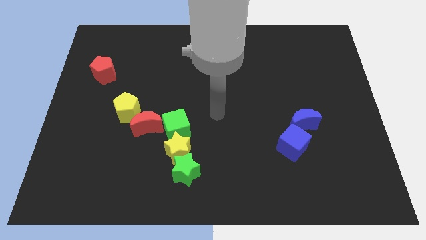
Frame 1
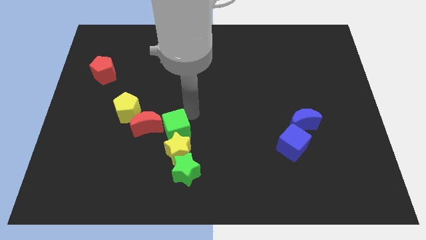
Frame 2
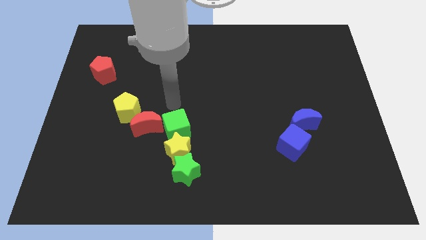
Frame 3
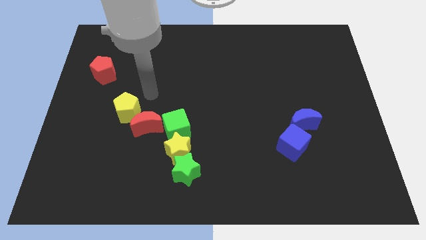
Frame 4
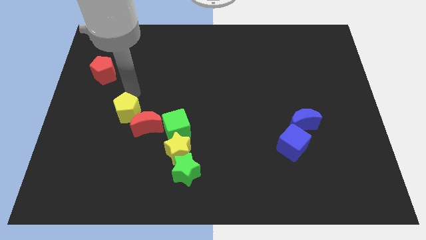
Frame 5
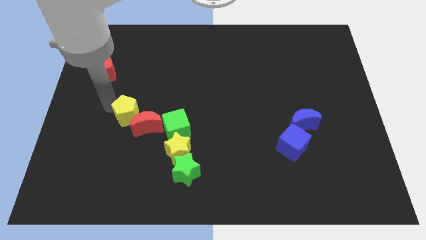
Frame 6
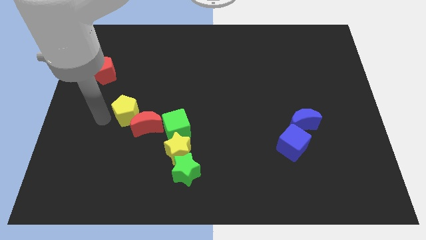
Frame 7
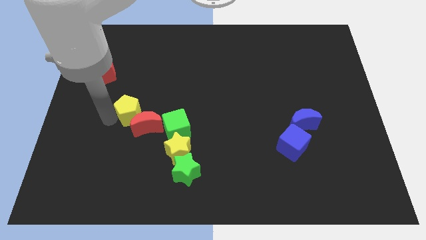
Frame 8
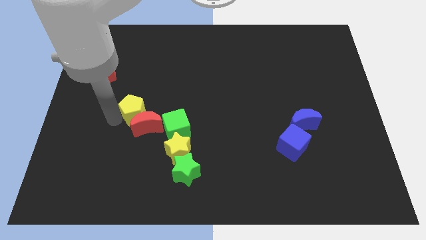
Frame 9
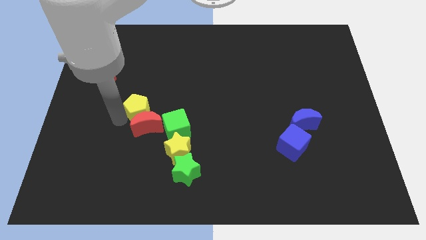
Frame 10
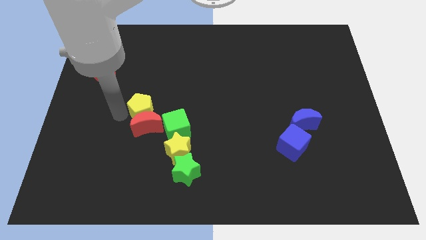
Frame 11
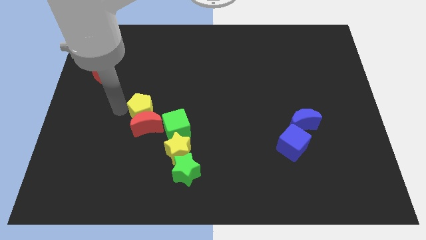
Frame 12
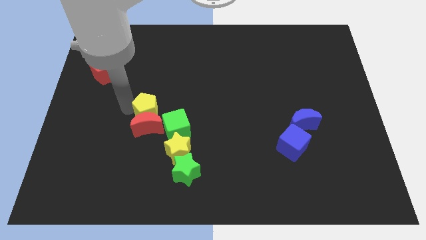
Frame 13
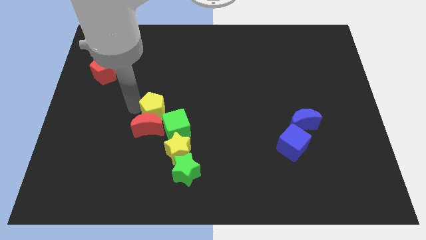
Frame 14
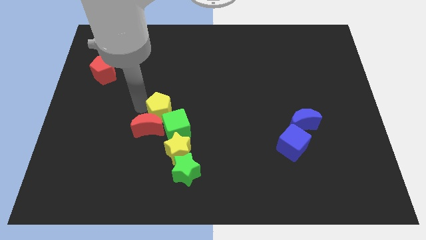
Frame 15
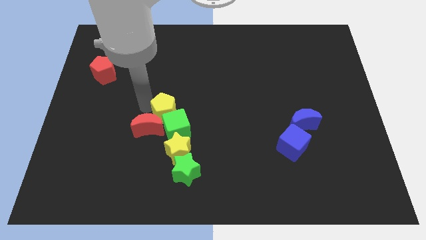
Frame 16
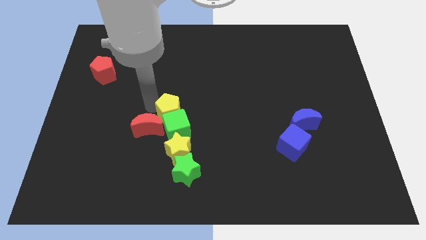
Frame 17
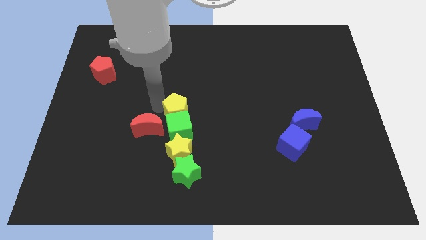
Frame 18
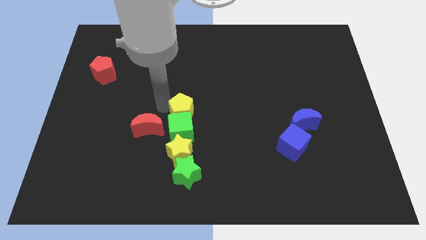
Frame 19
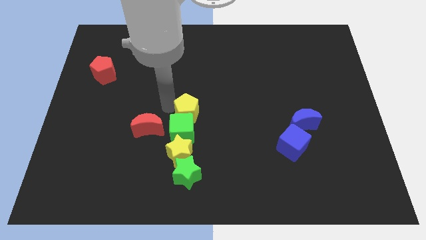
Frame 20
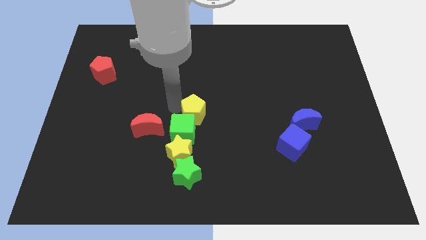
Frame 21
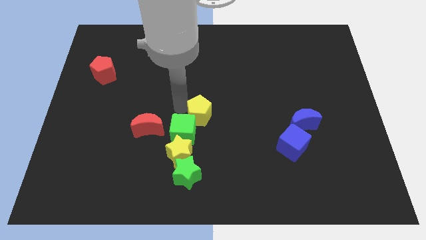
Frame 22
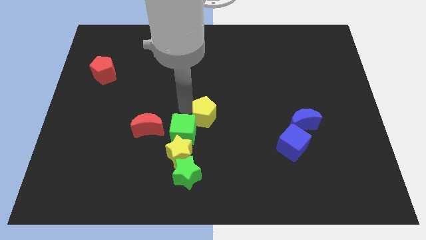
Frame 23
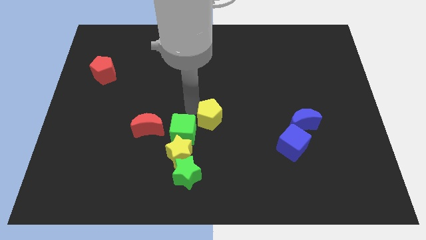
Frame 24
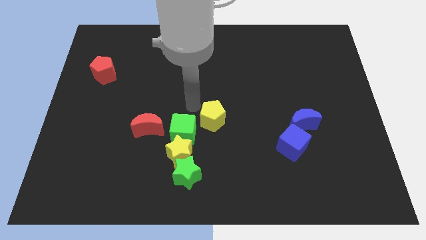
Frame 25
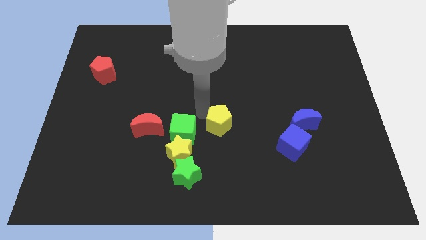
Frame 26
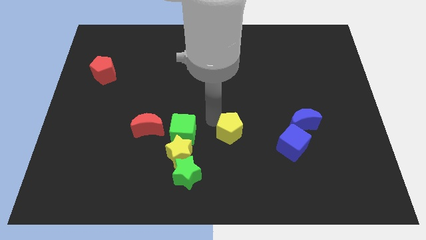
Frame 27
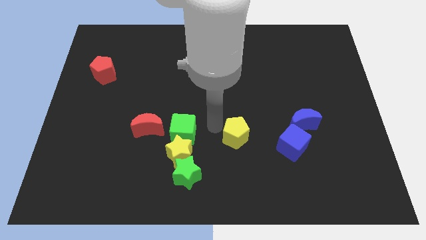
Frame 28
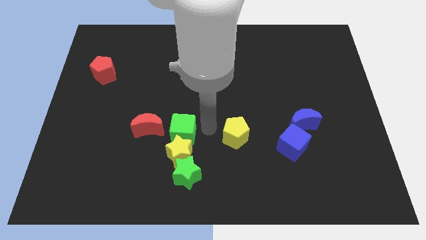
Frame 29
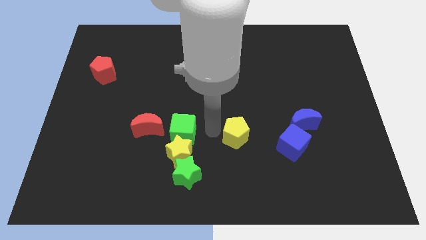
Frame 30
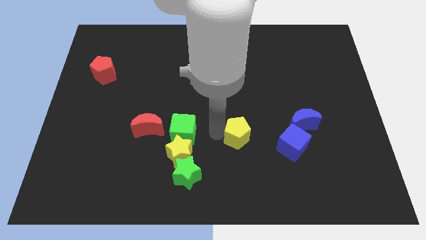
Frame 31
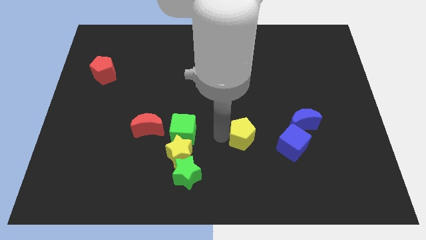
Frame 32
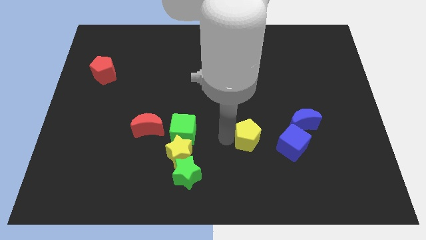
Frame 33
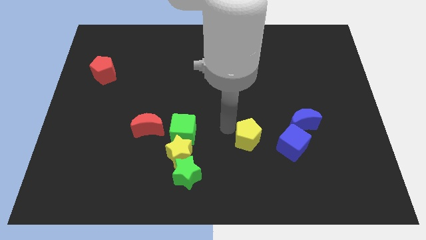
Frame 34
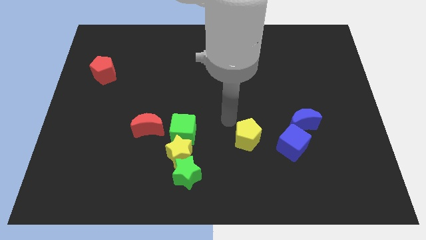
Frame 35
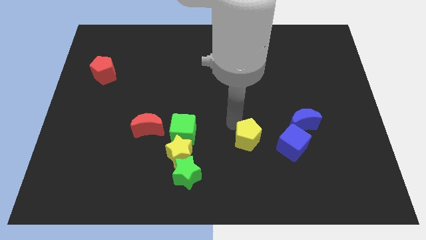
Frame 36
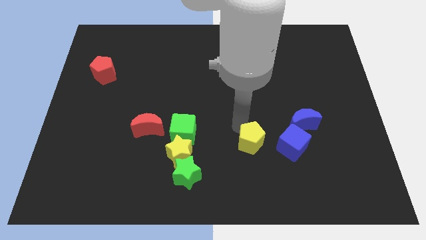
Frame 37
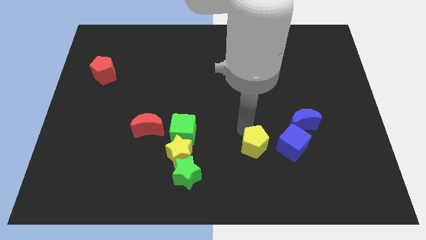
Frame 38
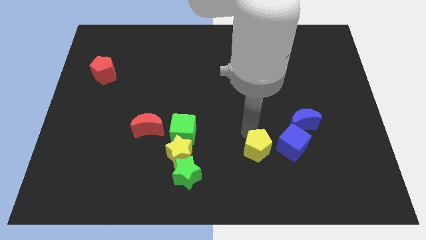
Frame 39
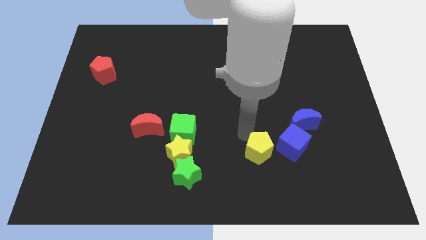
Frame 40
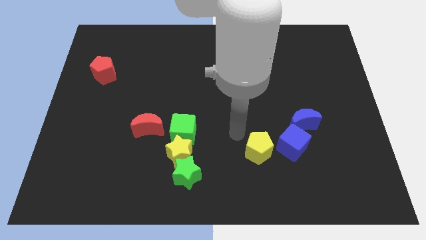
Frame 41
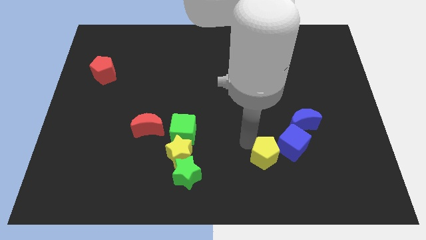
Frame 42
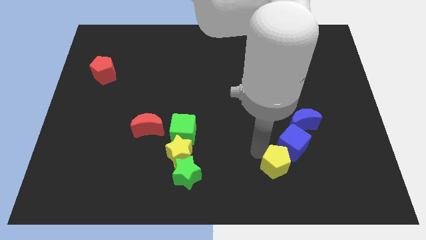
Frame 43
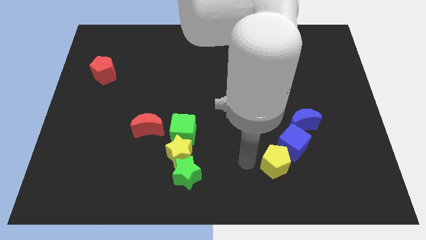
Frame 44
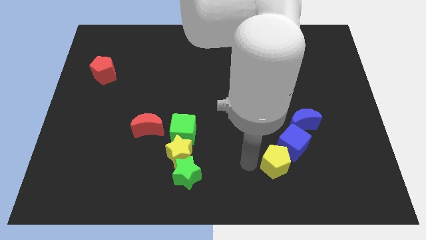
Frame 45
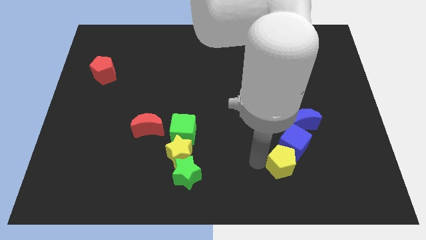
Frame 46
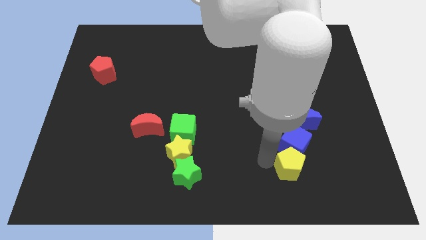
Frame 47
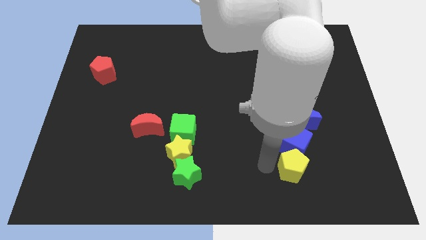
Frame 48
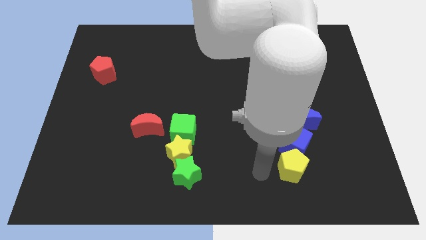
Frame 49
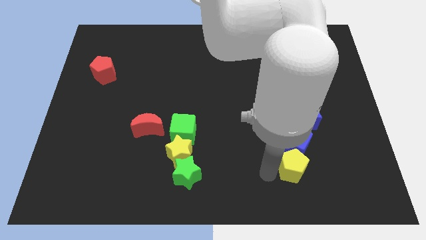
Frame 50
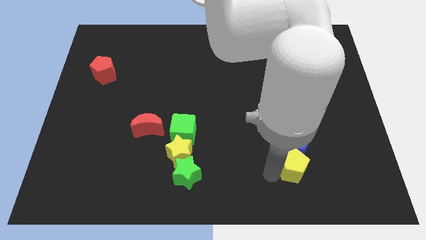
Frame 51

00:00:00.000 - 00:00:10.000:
push the yellow pentagon to the bottom right of the blue cube

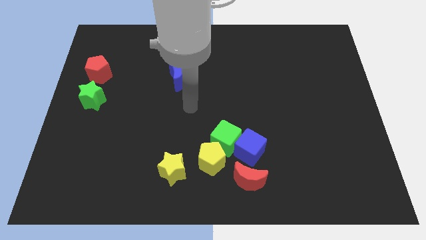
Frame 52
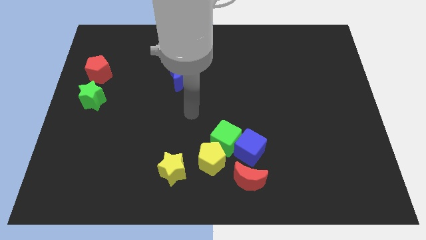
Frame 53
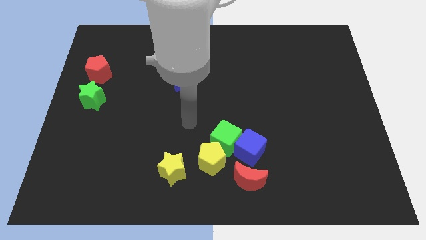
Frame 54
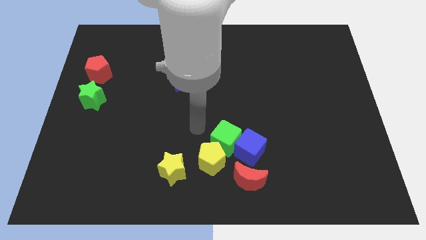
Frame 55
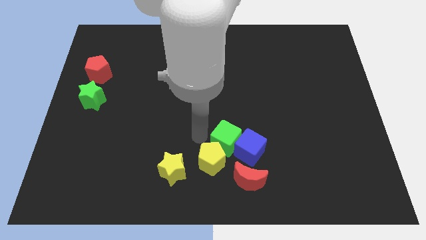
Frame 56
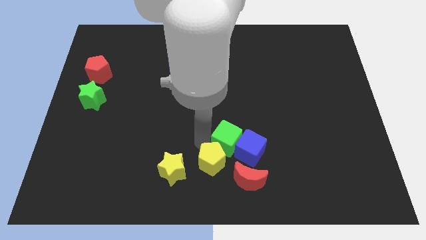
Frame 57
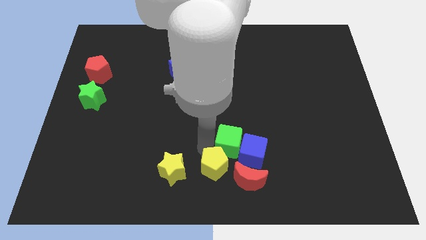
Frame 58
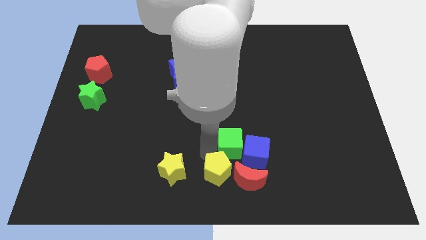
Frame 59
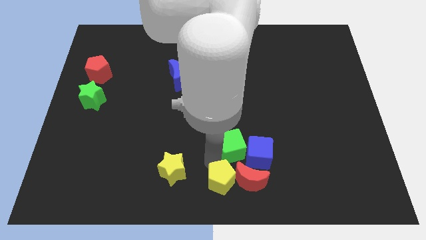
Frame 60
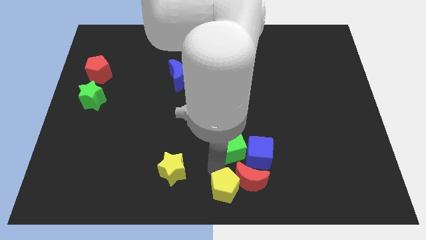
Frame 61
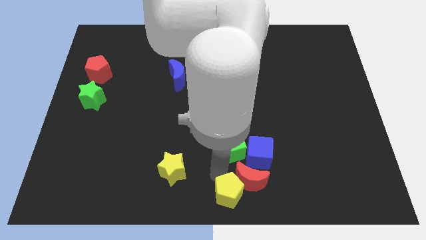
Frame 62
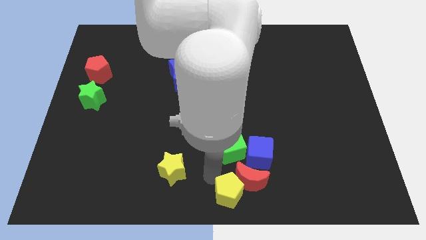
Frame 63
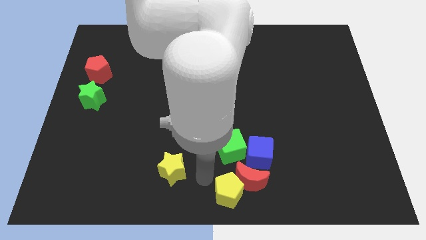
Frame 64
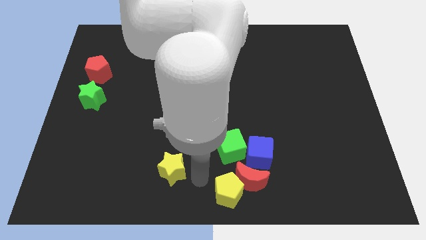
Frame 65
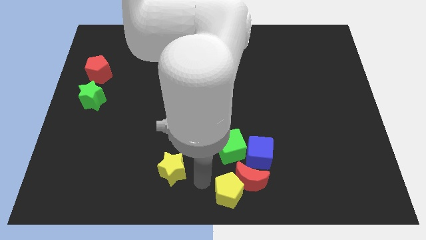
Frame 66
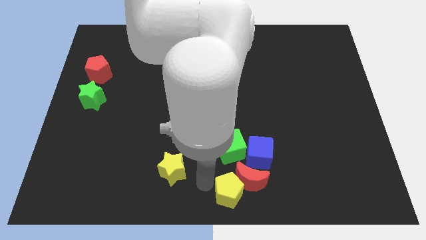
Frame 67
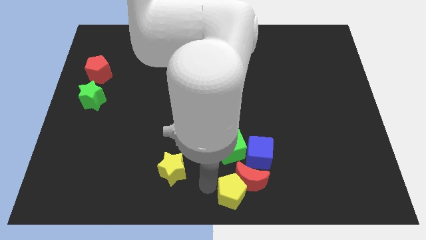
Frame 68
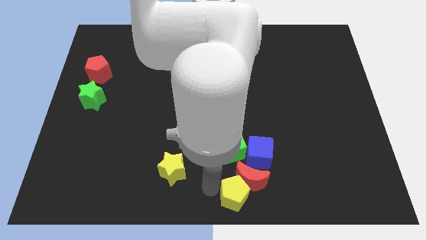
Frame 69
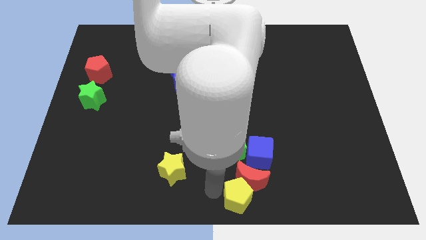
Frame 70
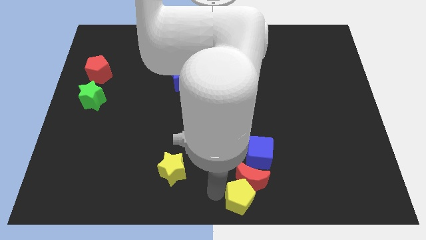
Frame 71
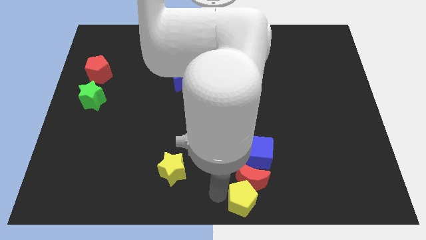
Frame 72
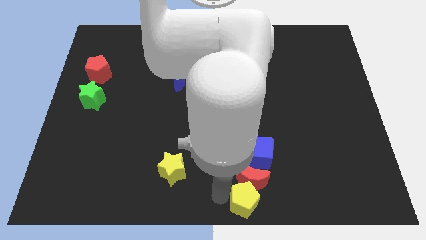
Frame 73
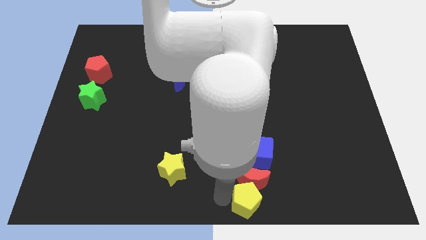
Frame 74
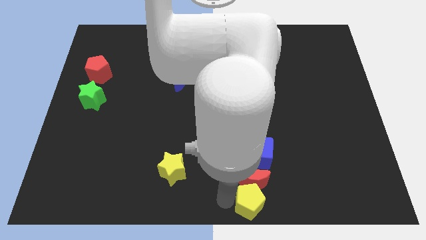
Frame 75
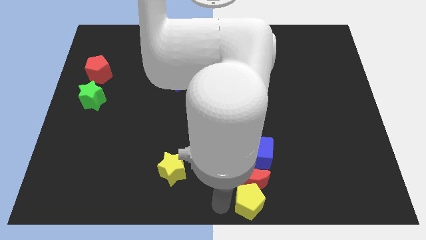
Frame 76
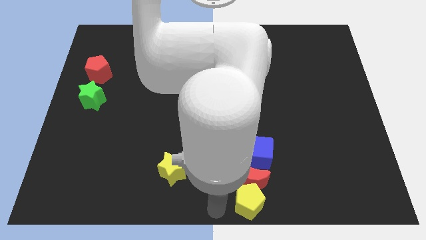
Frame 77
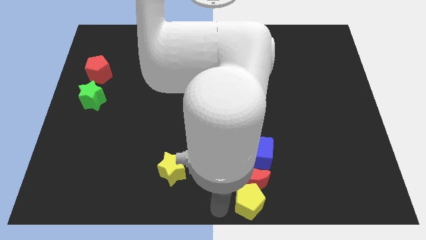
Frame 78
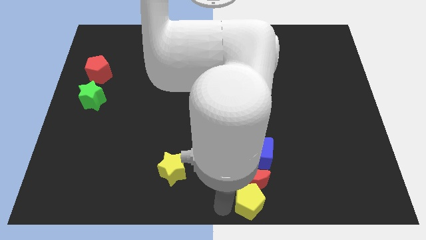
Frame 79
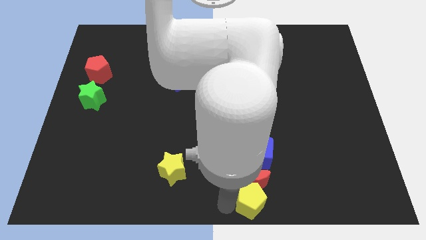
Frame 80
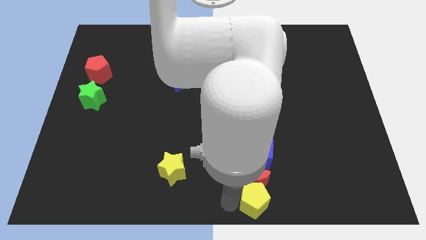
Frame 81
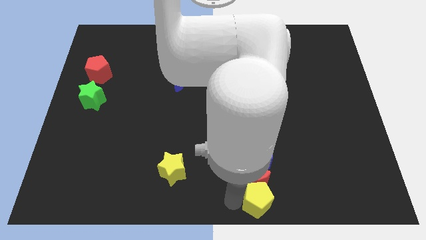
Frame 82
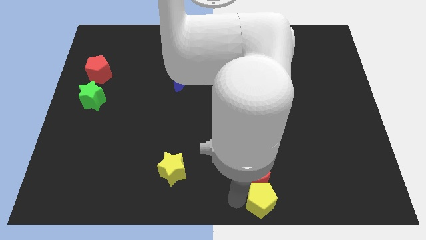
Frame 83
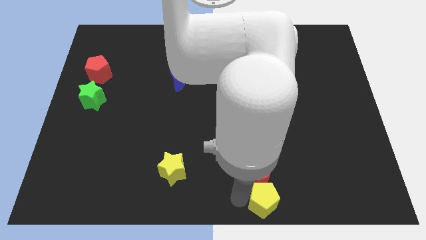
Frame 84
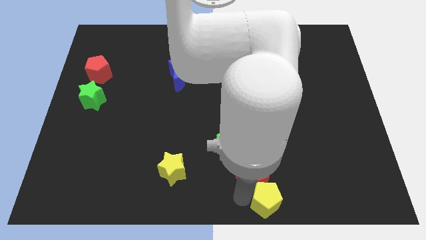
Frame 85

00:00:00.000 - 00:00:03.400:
slide the yellow pentagon to the right of the red moon
